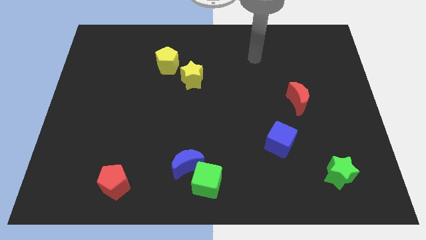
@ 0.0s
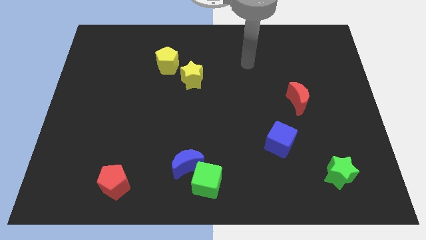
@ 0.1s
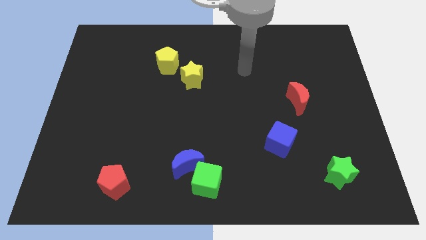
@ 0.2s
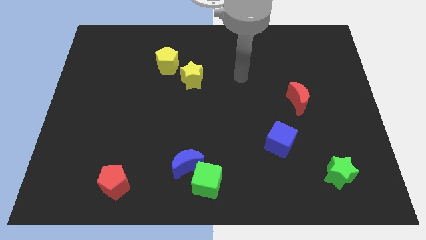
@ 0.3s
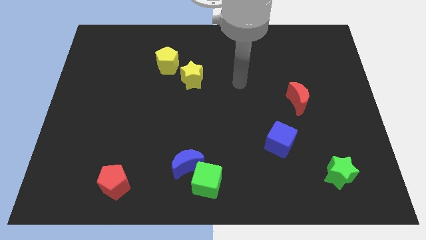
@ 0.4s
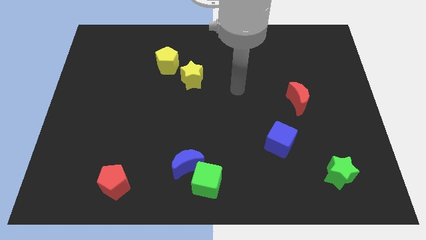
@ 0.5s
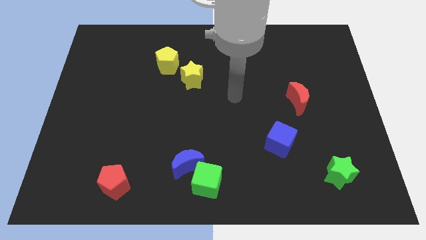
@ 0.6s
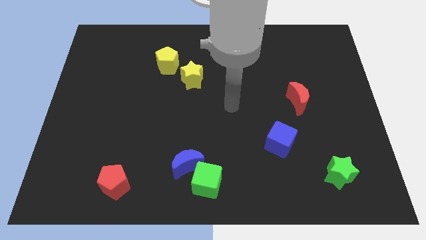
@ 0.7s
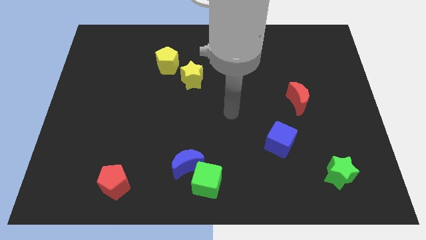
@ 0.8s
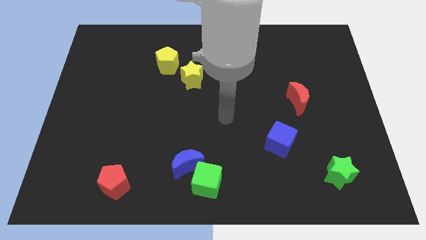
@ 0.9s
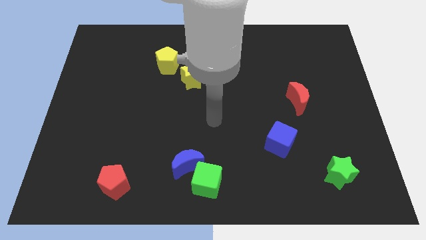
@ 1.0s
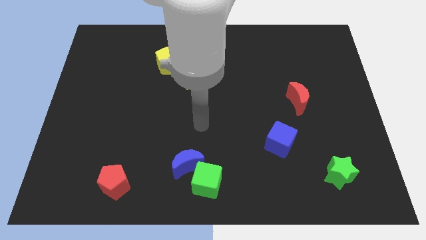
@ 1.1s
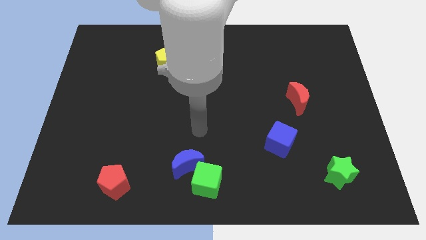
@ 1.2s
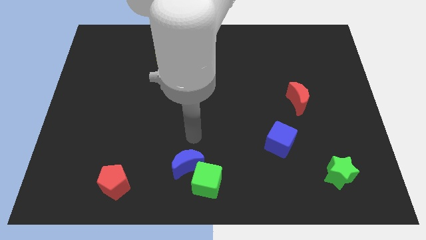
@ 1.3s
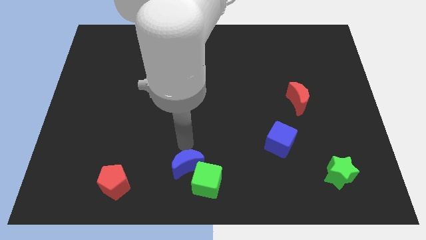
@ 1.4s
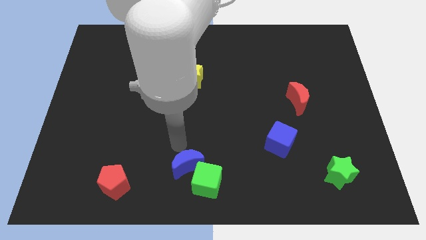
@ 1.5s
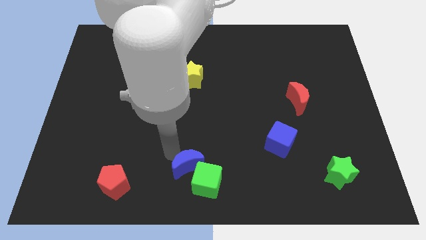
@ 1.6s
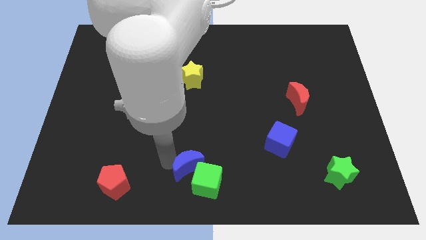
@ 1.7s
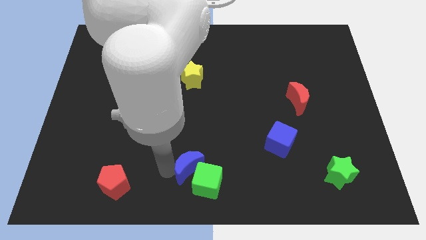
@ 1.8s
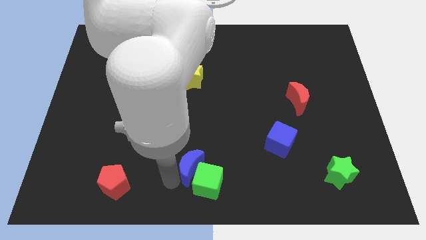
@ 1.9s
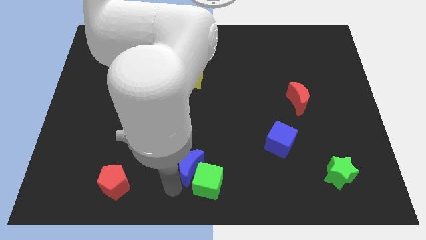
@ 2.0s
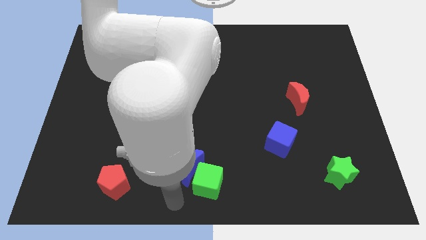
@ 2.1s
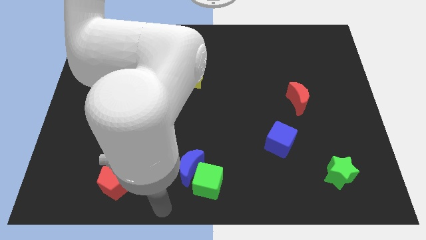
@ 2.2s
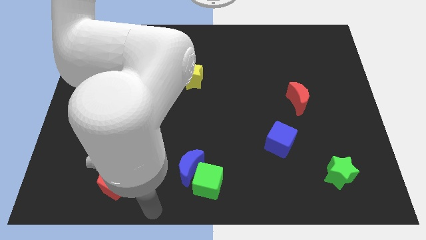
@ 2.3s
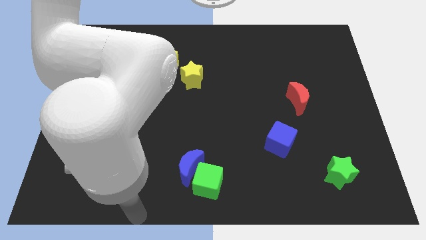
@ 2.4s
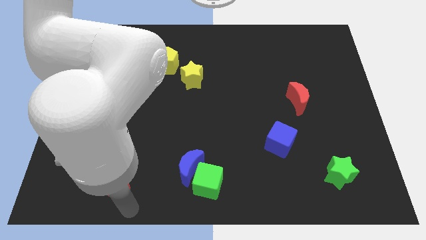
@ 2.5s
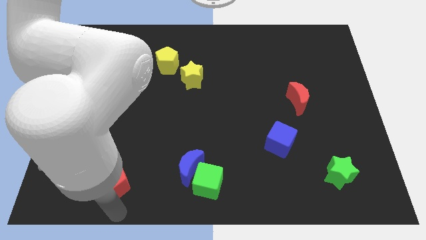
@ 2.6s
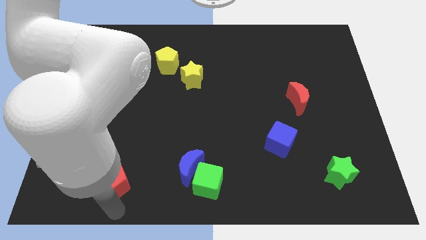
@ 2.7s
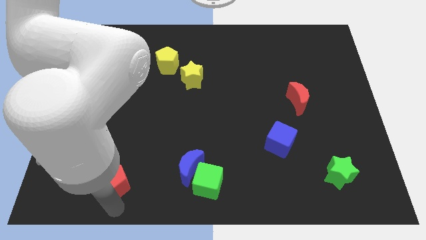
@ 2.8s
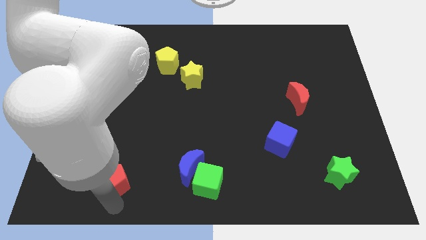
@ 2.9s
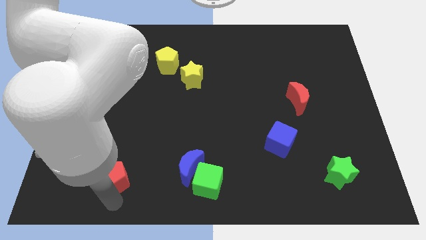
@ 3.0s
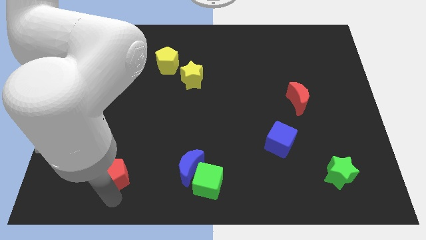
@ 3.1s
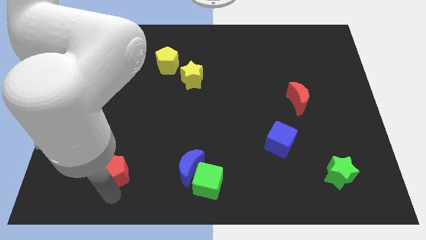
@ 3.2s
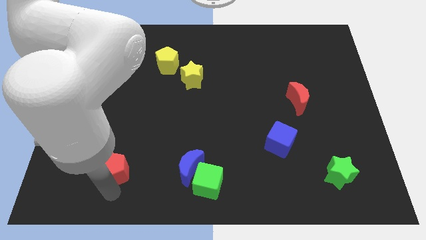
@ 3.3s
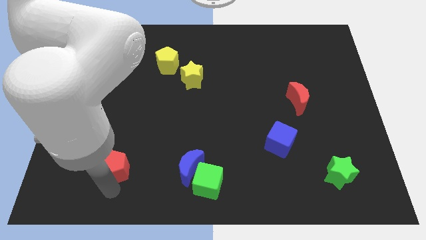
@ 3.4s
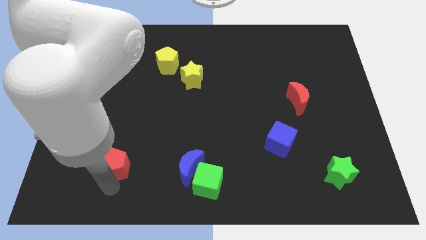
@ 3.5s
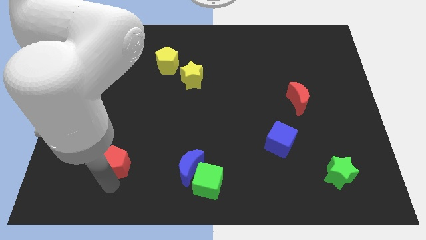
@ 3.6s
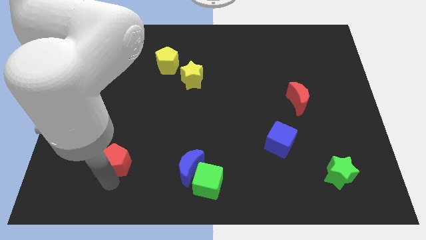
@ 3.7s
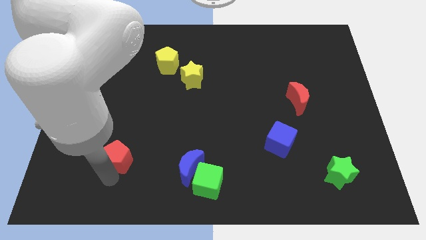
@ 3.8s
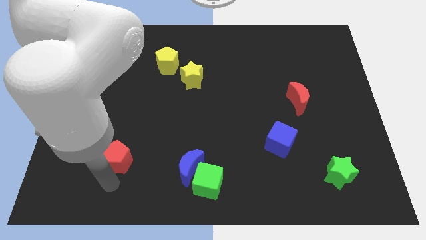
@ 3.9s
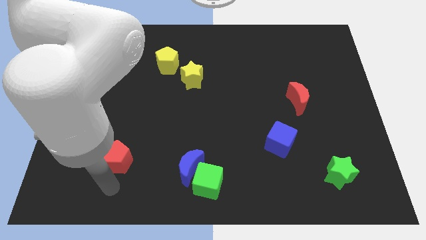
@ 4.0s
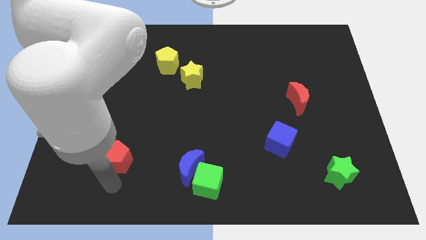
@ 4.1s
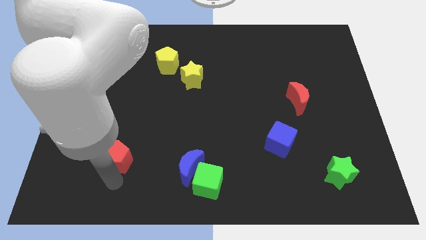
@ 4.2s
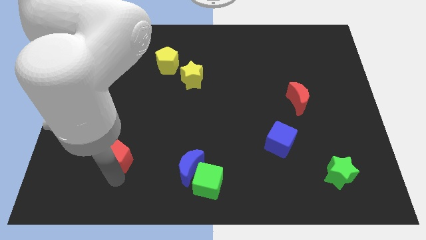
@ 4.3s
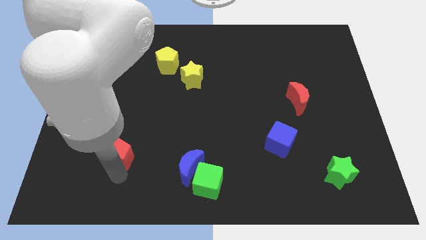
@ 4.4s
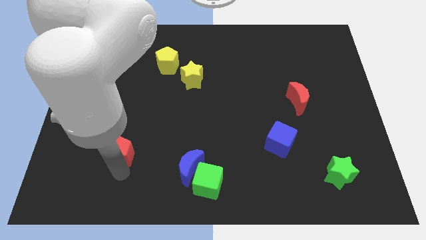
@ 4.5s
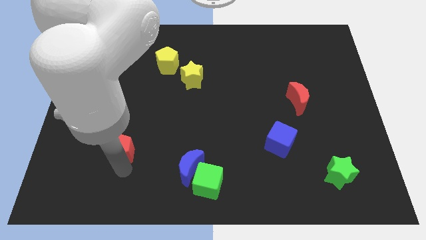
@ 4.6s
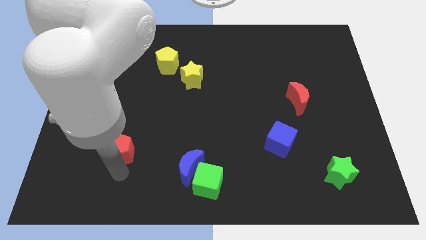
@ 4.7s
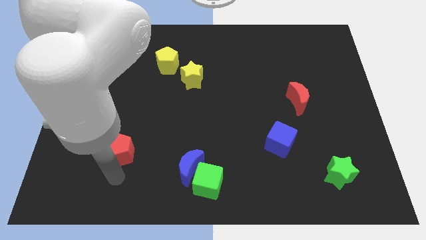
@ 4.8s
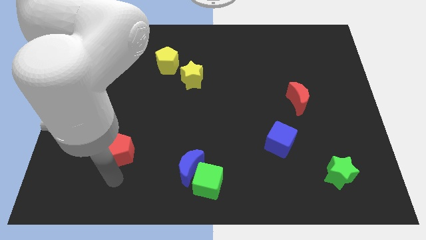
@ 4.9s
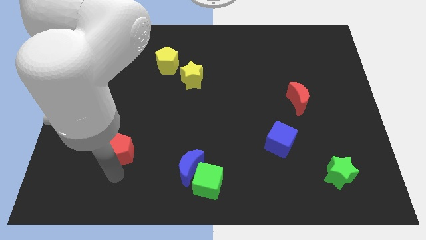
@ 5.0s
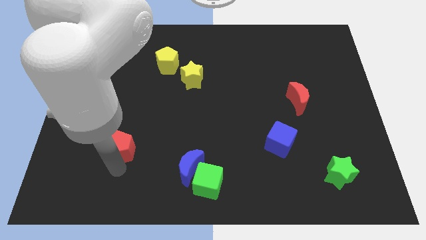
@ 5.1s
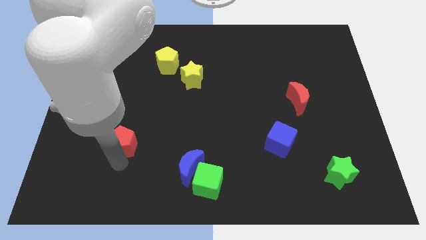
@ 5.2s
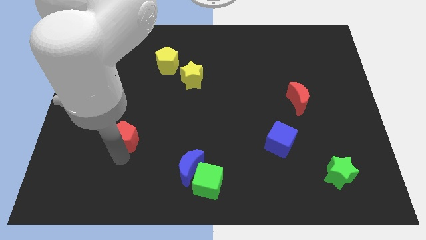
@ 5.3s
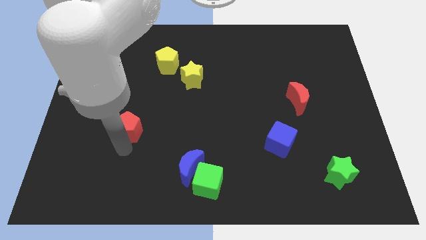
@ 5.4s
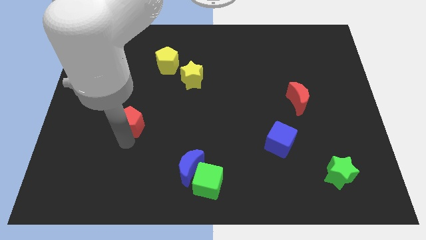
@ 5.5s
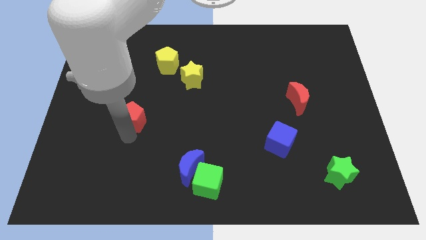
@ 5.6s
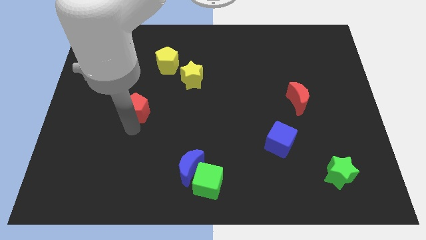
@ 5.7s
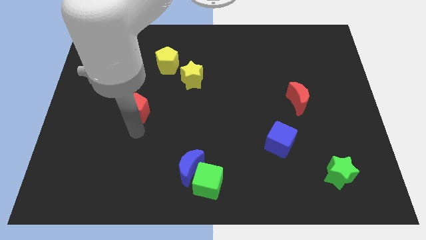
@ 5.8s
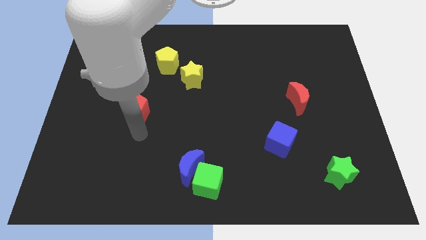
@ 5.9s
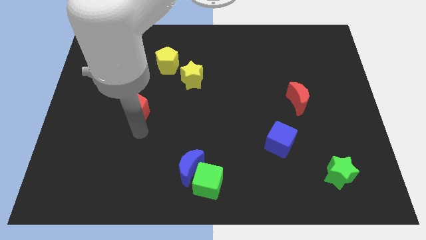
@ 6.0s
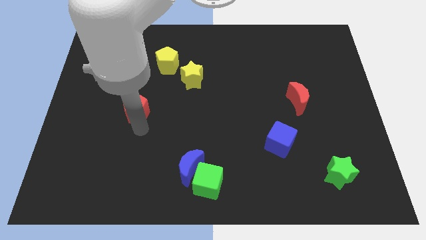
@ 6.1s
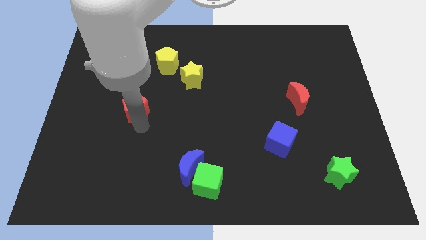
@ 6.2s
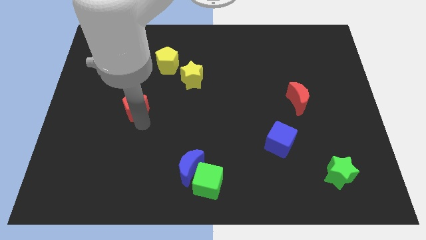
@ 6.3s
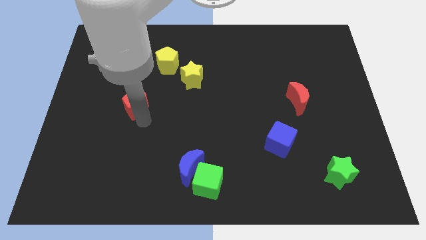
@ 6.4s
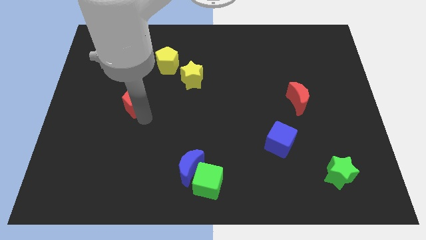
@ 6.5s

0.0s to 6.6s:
move the red pentagon up

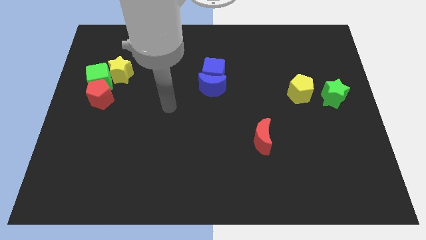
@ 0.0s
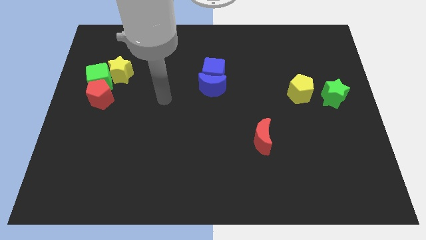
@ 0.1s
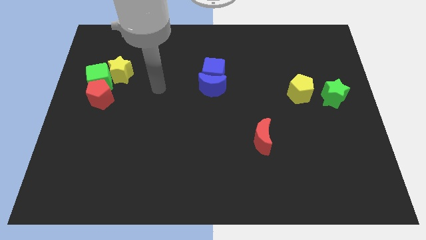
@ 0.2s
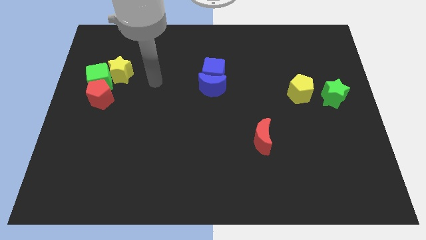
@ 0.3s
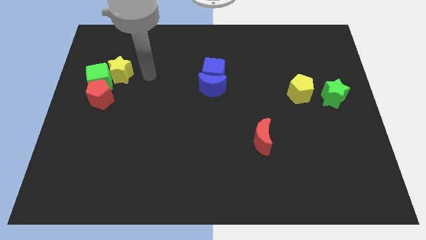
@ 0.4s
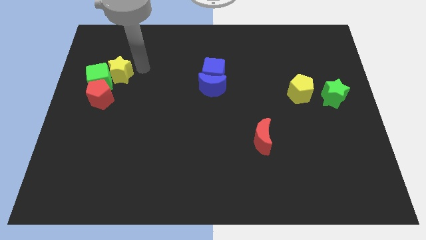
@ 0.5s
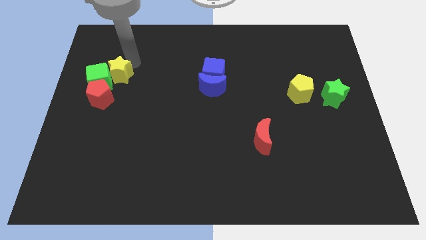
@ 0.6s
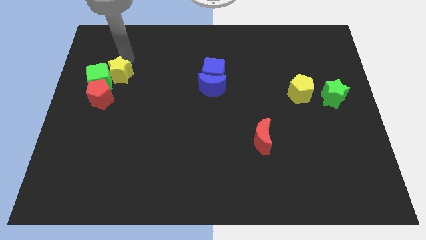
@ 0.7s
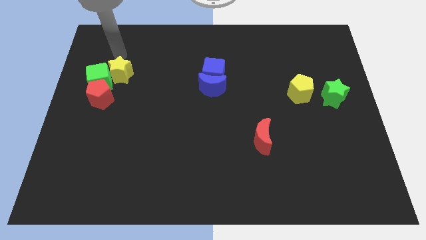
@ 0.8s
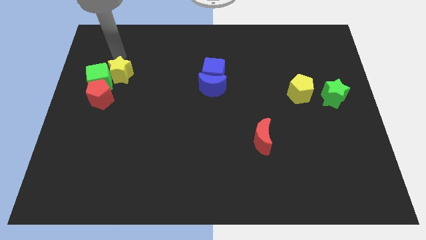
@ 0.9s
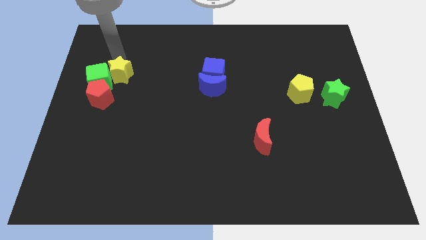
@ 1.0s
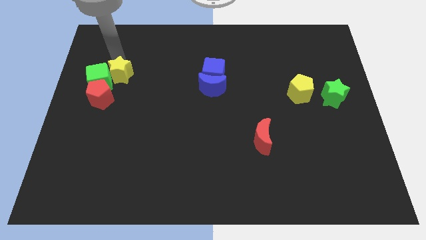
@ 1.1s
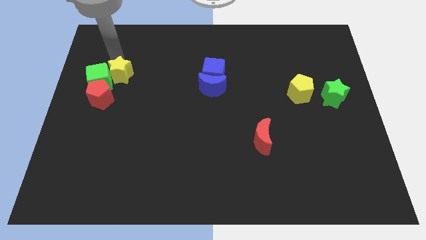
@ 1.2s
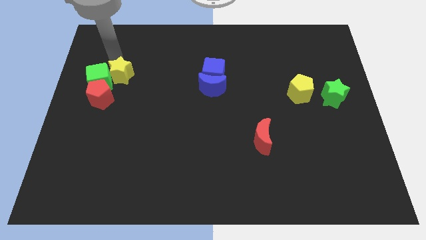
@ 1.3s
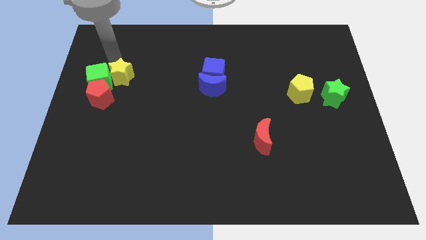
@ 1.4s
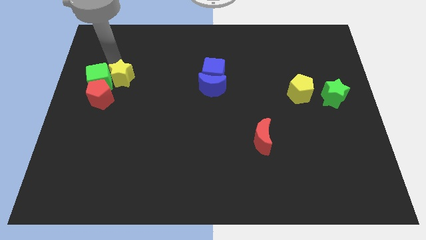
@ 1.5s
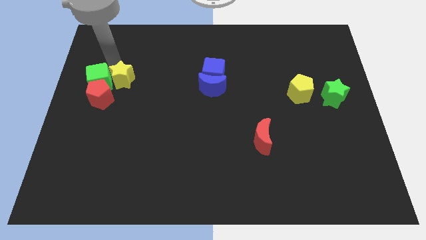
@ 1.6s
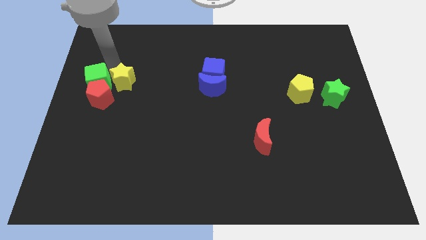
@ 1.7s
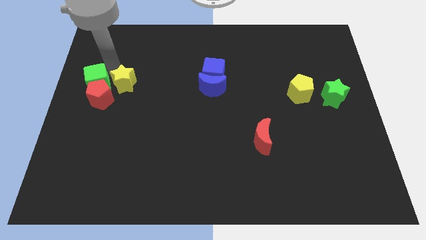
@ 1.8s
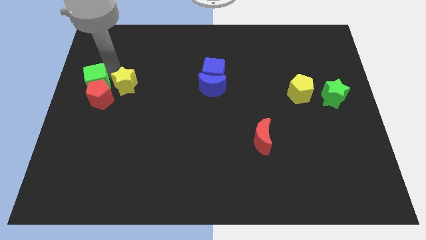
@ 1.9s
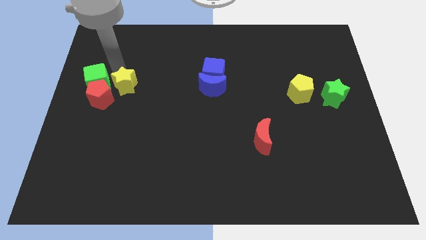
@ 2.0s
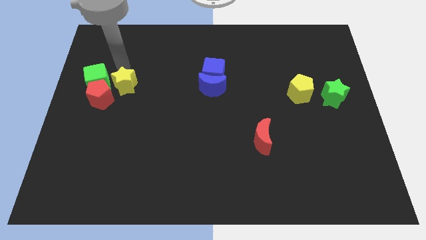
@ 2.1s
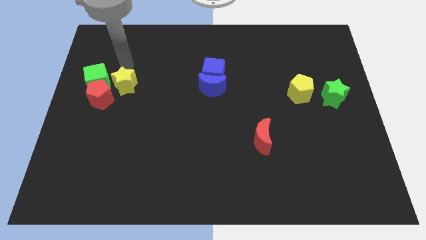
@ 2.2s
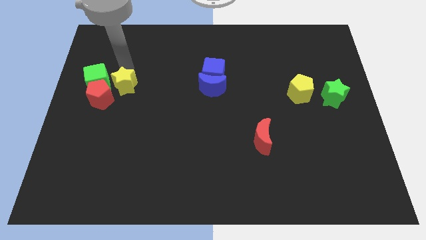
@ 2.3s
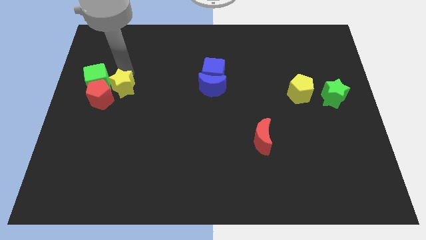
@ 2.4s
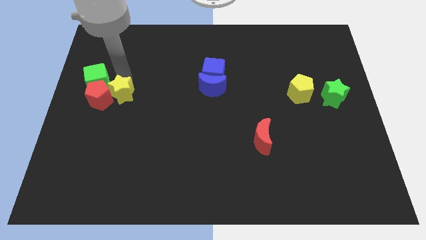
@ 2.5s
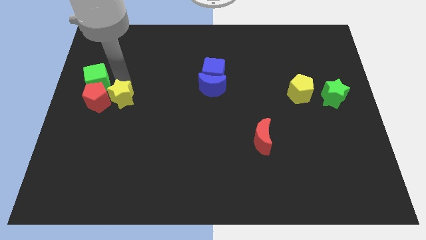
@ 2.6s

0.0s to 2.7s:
slide the yellow star downwards somewhat
